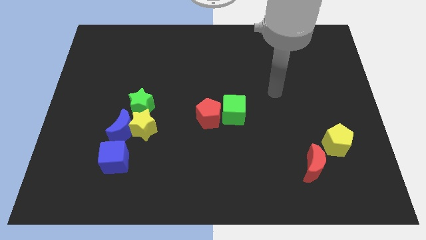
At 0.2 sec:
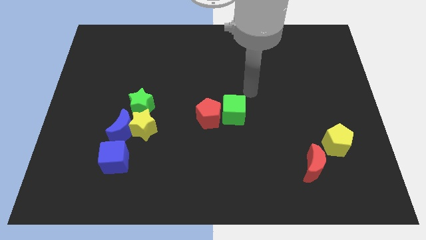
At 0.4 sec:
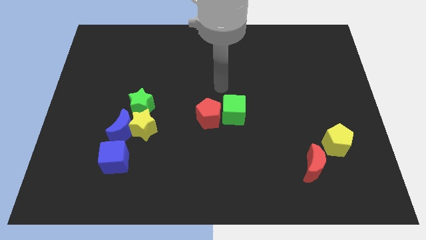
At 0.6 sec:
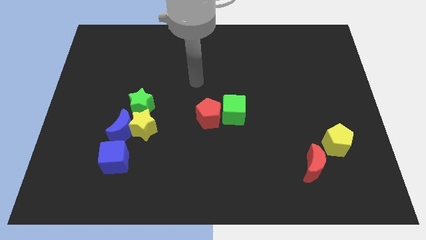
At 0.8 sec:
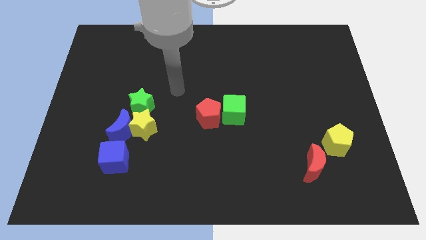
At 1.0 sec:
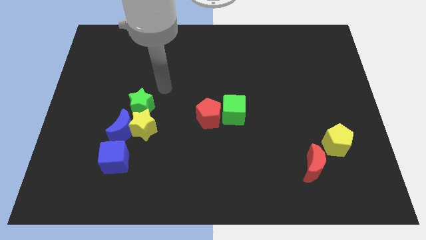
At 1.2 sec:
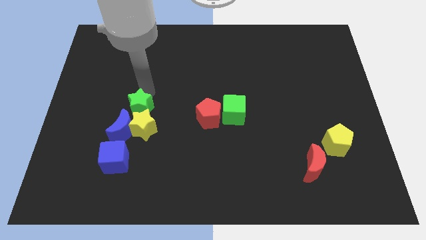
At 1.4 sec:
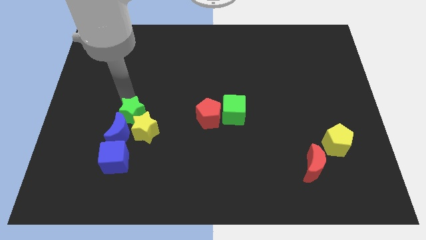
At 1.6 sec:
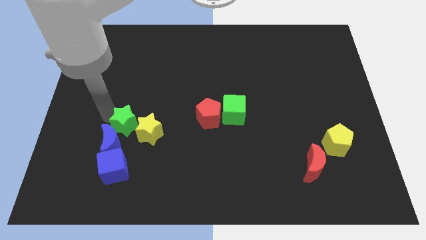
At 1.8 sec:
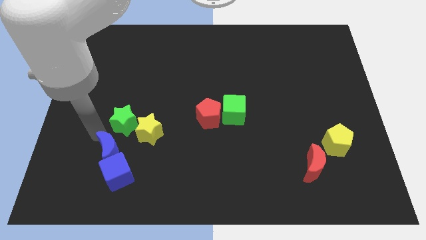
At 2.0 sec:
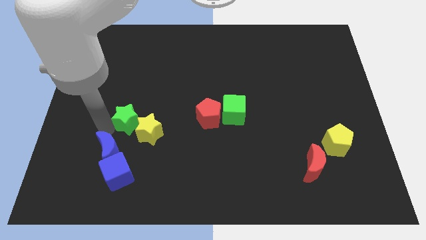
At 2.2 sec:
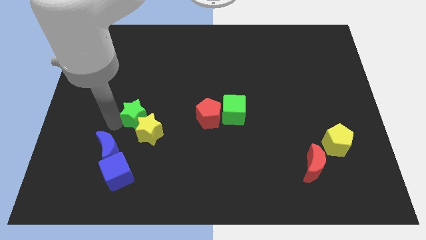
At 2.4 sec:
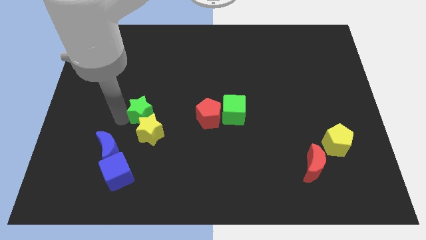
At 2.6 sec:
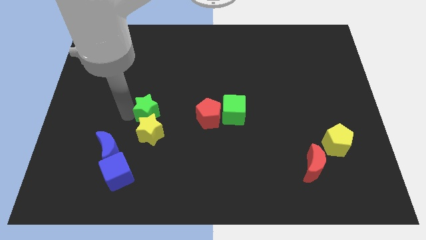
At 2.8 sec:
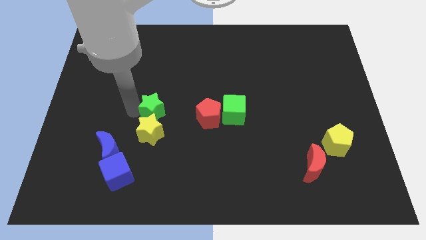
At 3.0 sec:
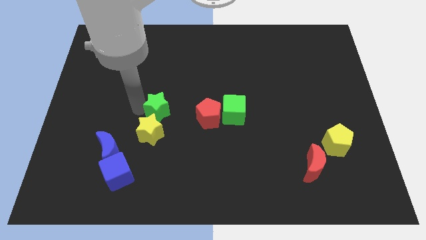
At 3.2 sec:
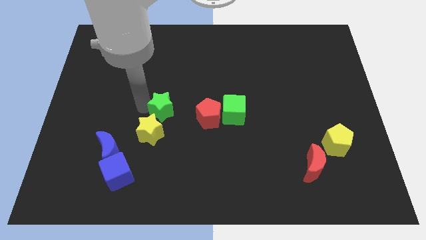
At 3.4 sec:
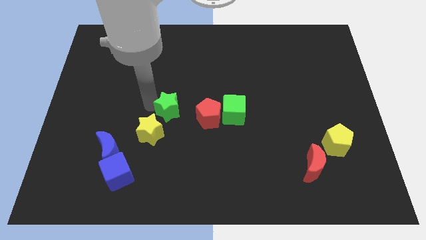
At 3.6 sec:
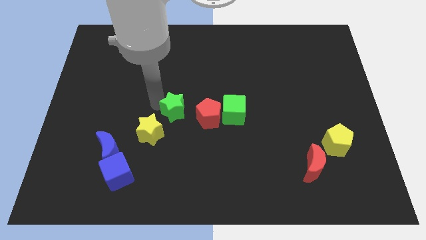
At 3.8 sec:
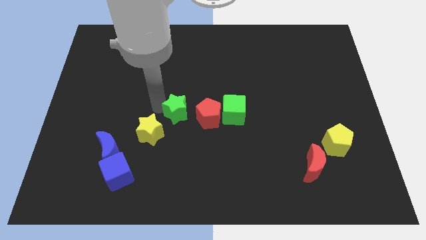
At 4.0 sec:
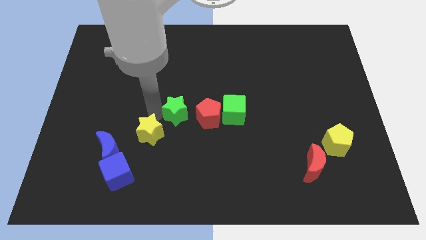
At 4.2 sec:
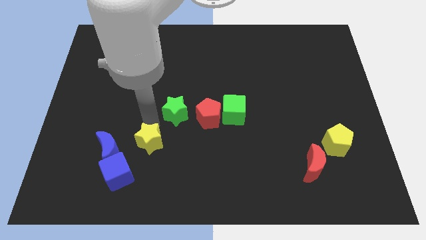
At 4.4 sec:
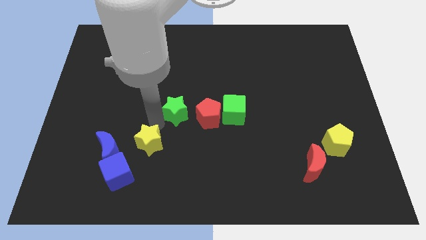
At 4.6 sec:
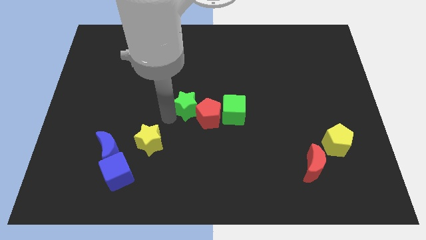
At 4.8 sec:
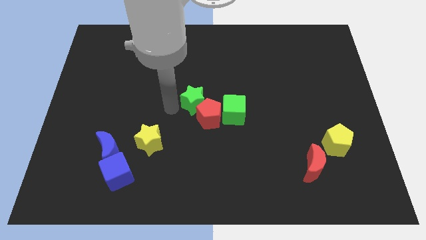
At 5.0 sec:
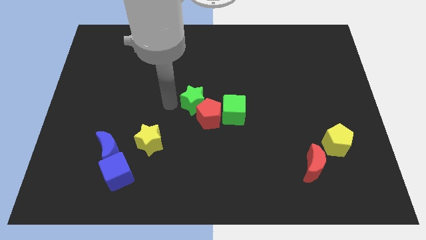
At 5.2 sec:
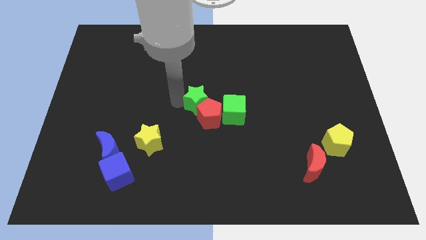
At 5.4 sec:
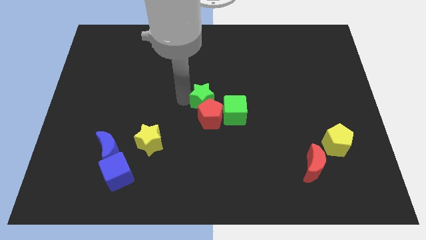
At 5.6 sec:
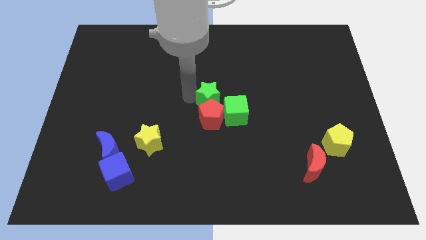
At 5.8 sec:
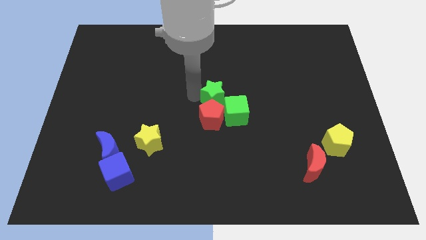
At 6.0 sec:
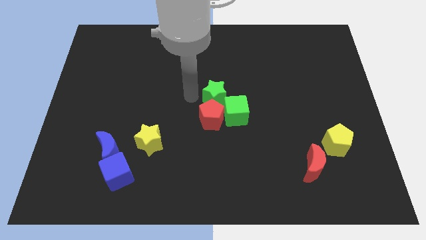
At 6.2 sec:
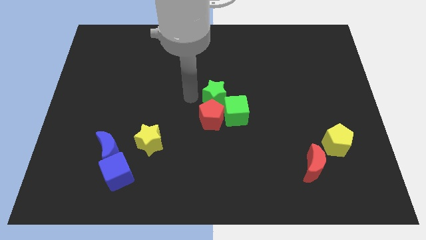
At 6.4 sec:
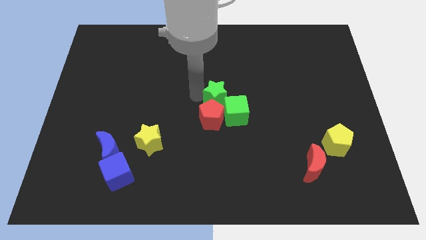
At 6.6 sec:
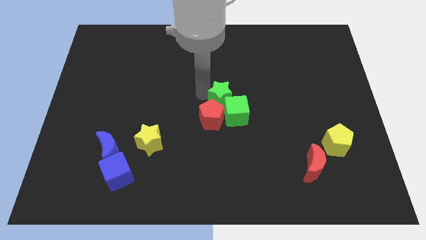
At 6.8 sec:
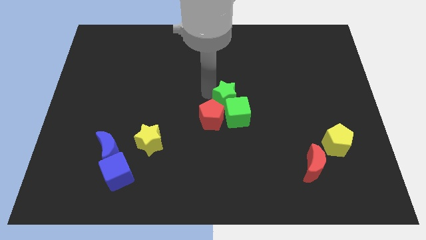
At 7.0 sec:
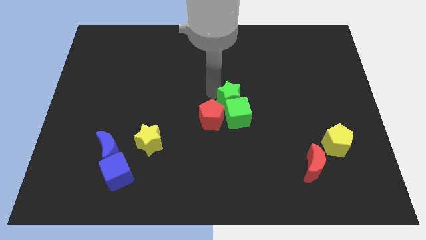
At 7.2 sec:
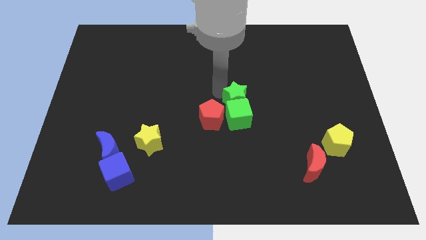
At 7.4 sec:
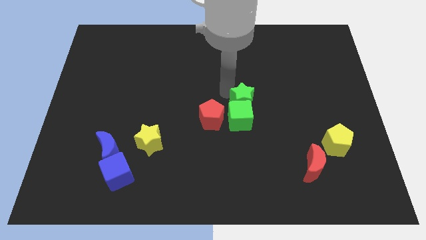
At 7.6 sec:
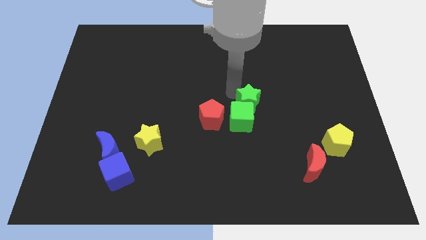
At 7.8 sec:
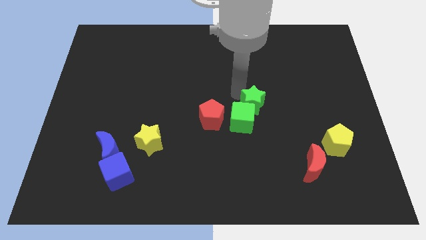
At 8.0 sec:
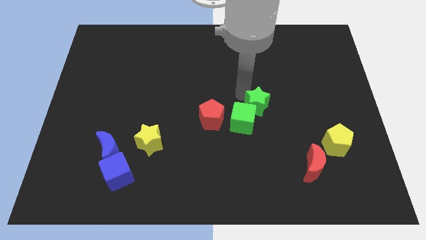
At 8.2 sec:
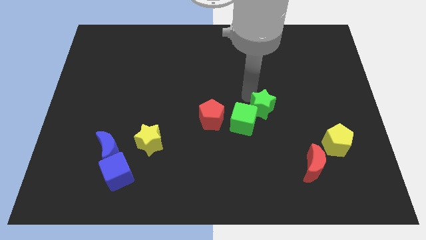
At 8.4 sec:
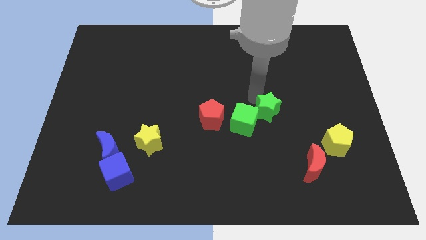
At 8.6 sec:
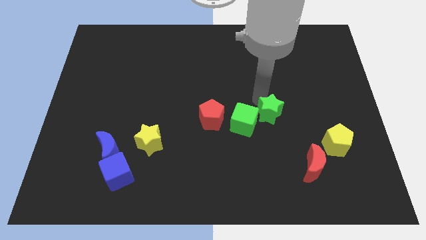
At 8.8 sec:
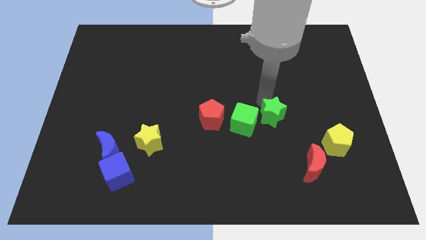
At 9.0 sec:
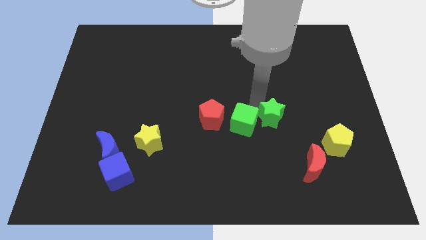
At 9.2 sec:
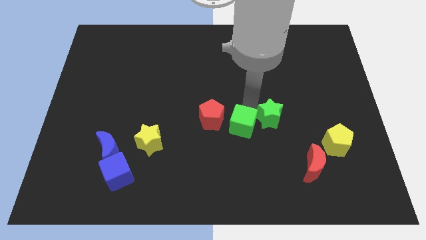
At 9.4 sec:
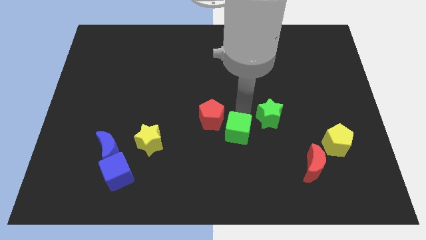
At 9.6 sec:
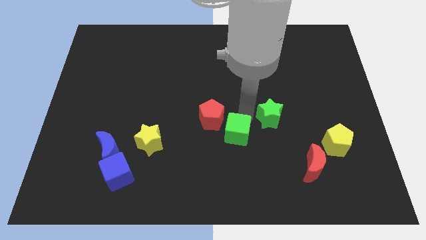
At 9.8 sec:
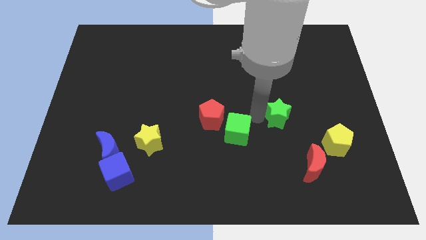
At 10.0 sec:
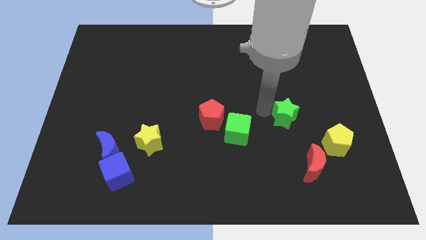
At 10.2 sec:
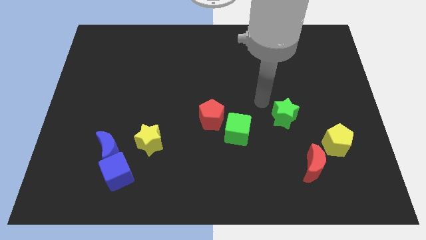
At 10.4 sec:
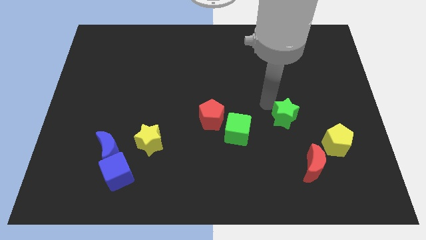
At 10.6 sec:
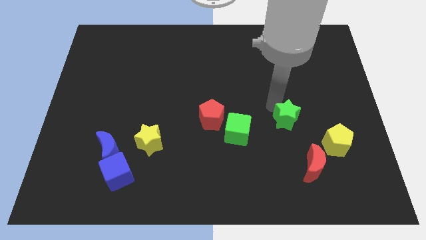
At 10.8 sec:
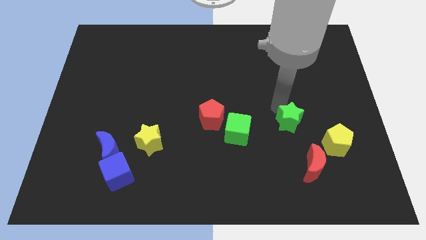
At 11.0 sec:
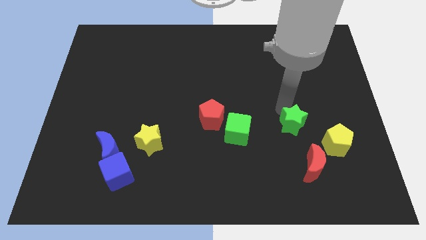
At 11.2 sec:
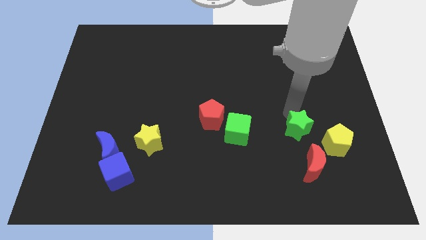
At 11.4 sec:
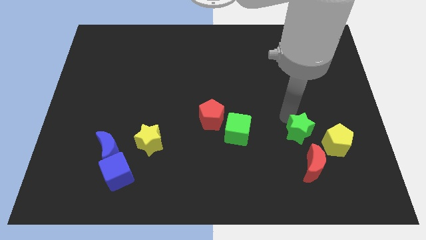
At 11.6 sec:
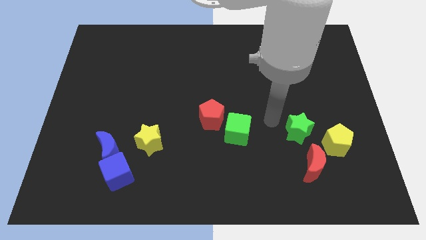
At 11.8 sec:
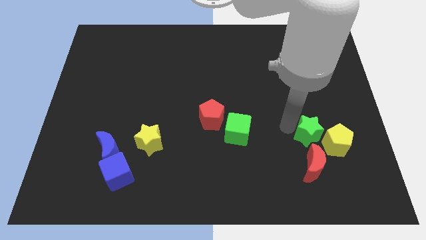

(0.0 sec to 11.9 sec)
push the green star to the yellow pentagon

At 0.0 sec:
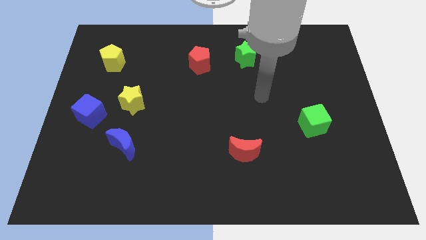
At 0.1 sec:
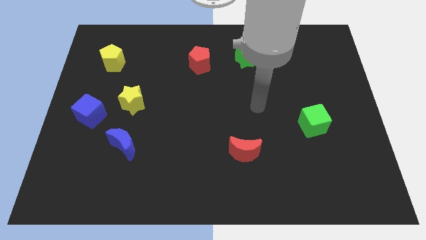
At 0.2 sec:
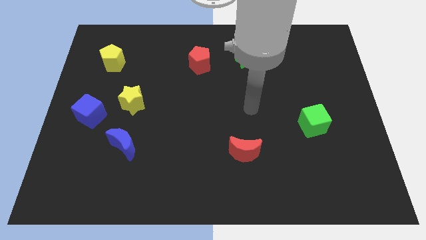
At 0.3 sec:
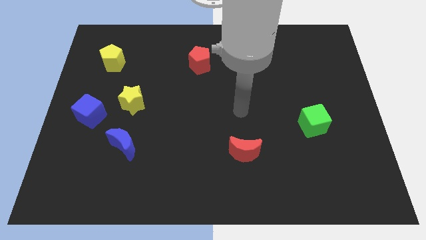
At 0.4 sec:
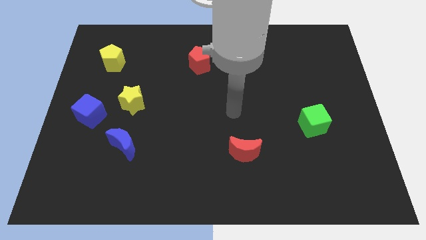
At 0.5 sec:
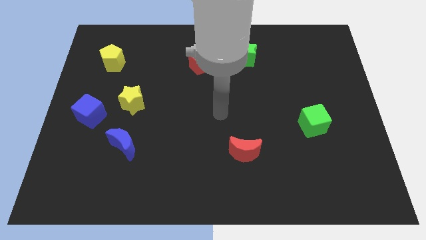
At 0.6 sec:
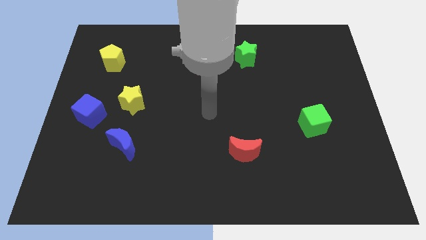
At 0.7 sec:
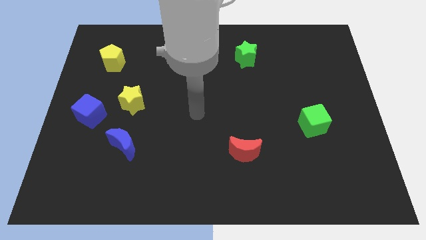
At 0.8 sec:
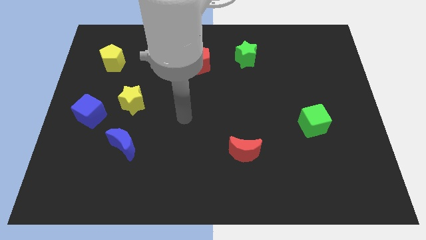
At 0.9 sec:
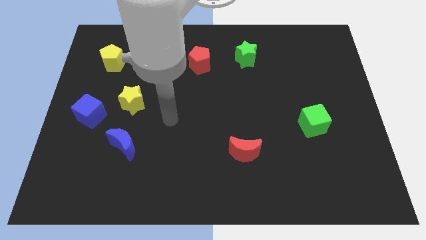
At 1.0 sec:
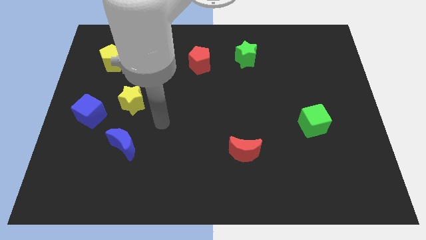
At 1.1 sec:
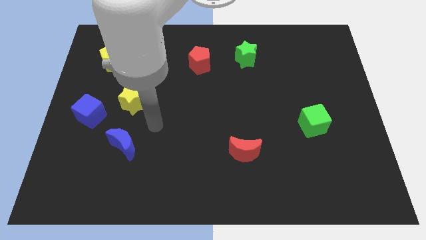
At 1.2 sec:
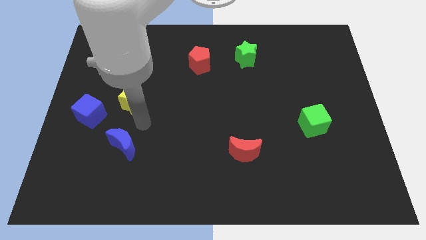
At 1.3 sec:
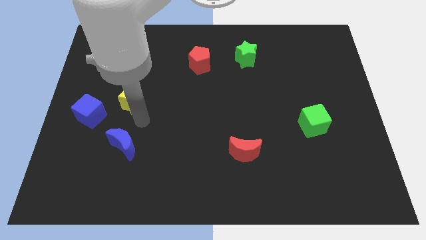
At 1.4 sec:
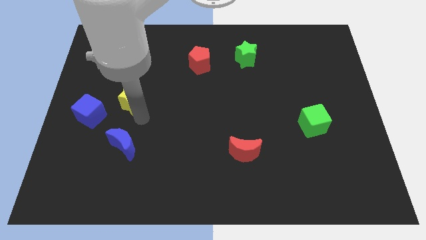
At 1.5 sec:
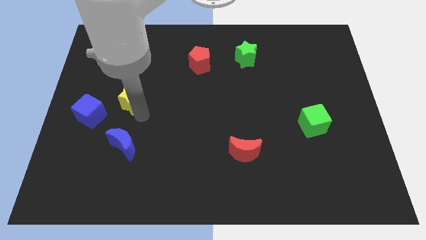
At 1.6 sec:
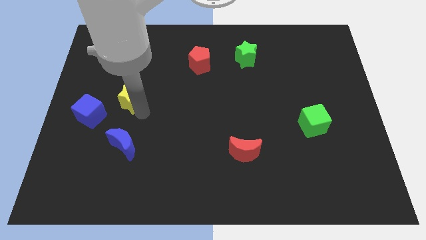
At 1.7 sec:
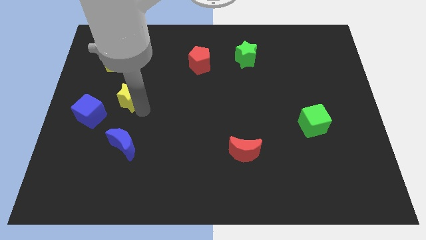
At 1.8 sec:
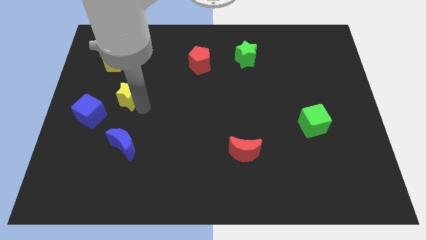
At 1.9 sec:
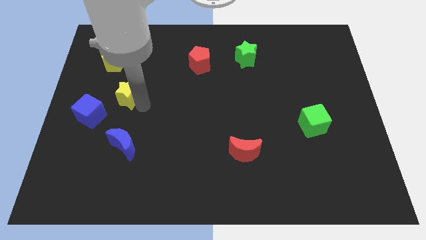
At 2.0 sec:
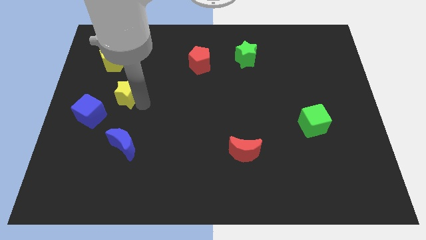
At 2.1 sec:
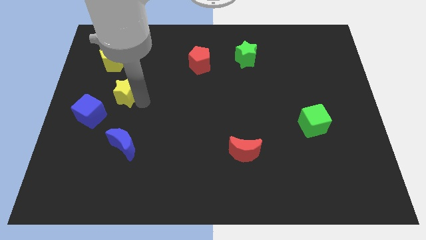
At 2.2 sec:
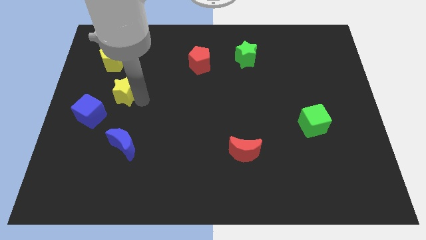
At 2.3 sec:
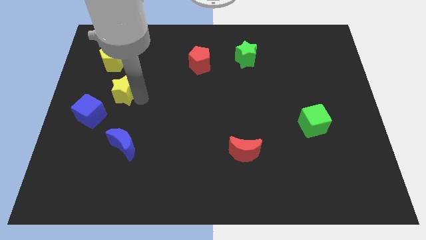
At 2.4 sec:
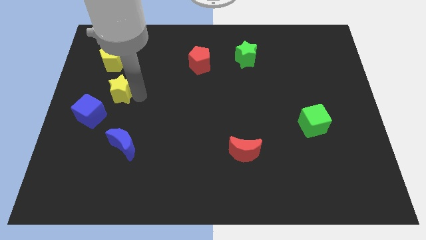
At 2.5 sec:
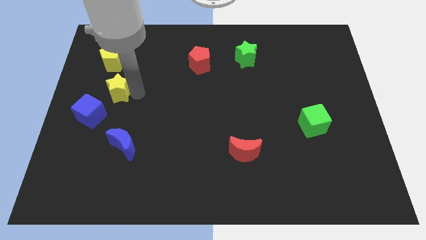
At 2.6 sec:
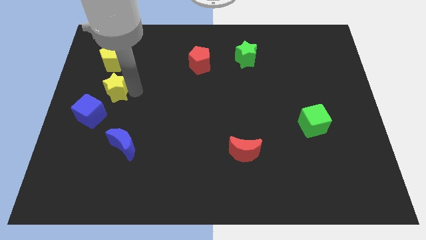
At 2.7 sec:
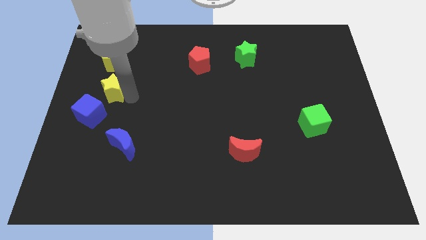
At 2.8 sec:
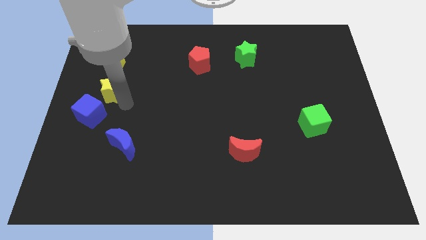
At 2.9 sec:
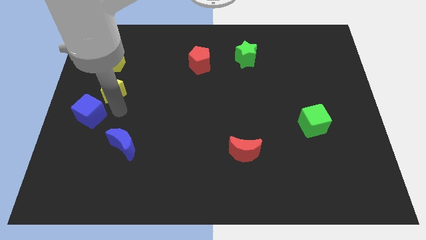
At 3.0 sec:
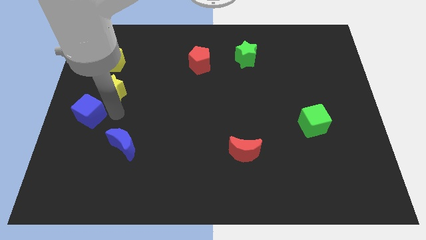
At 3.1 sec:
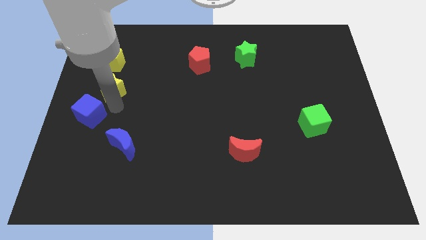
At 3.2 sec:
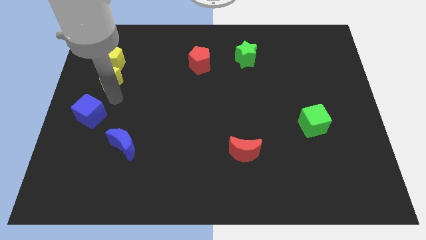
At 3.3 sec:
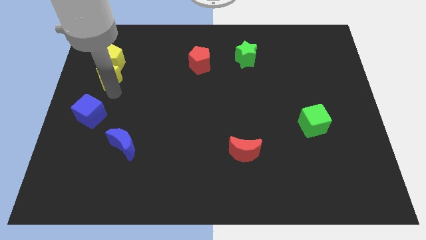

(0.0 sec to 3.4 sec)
put the yellow star close to the yellow pentagon
